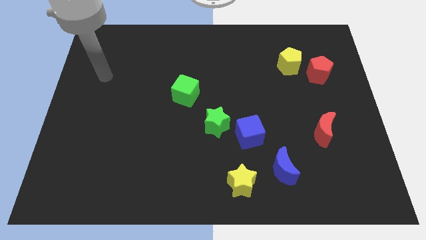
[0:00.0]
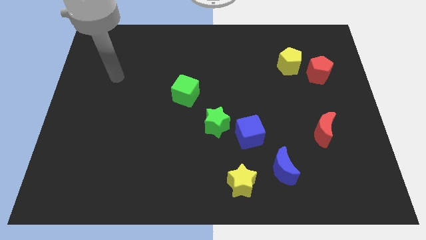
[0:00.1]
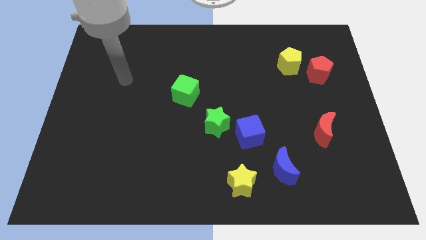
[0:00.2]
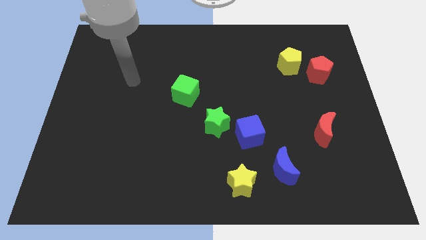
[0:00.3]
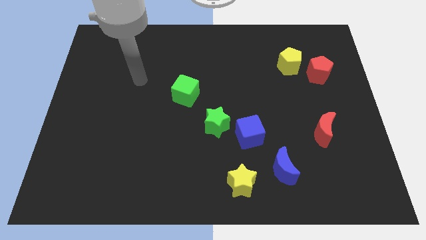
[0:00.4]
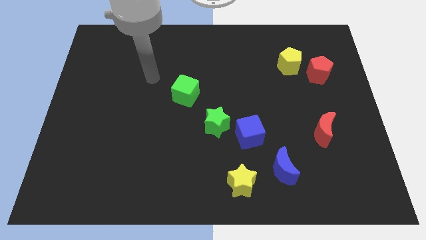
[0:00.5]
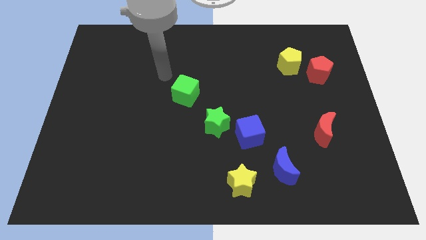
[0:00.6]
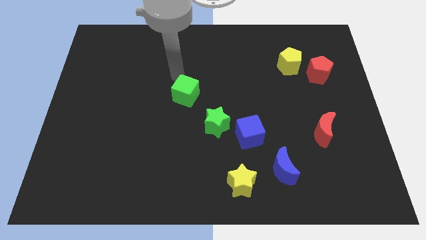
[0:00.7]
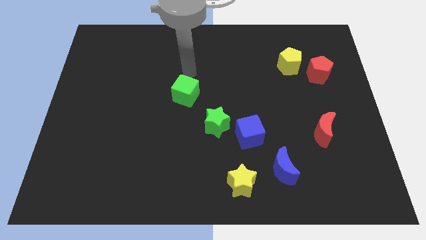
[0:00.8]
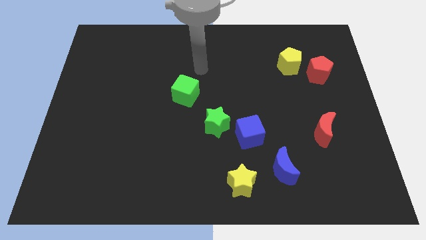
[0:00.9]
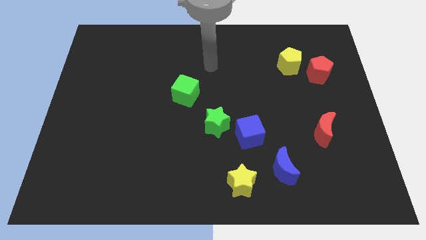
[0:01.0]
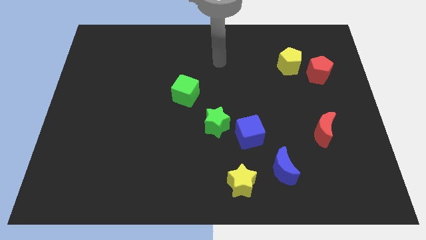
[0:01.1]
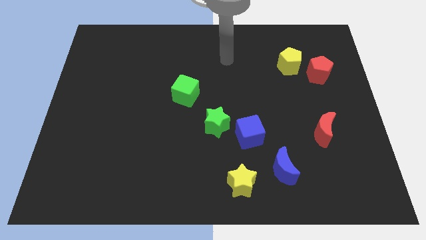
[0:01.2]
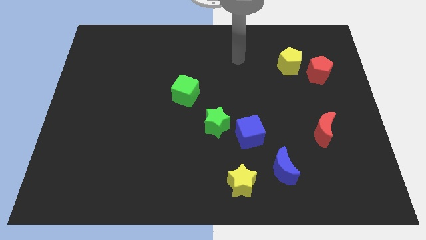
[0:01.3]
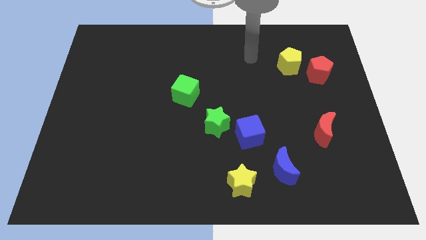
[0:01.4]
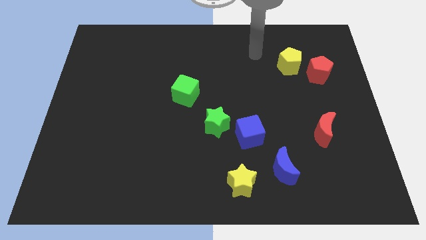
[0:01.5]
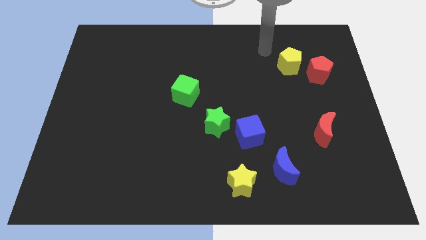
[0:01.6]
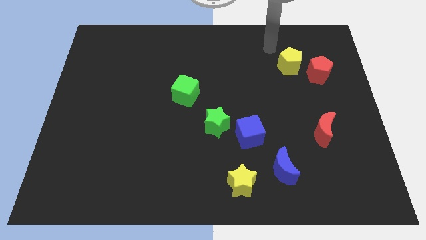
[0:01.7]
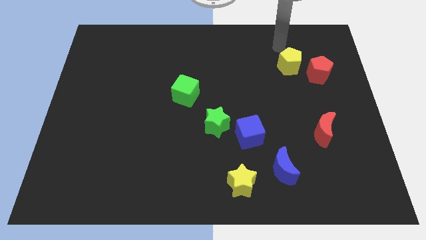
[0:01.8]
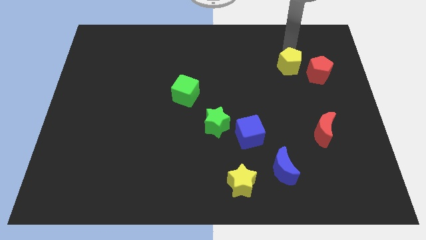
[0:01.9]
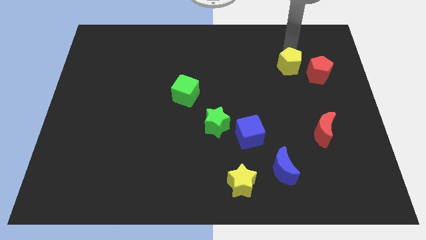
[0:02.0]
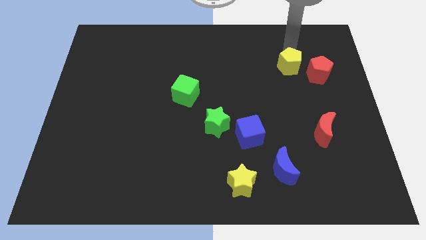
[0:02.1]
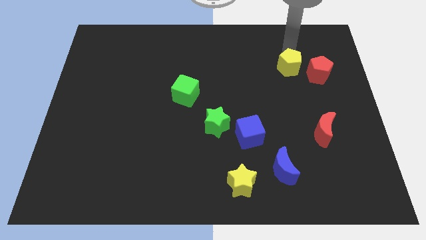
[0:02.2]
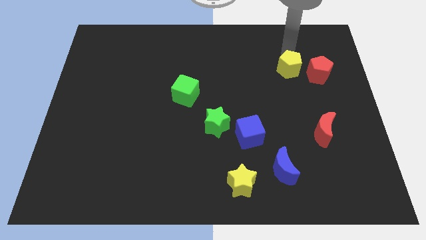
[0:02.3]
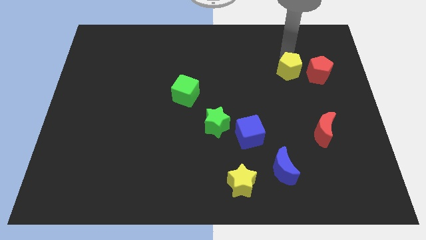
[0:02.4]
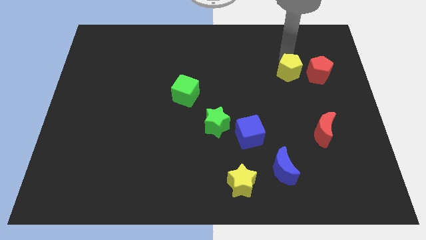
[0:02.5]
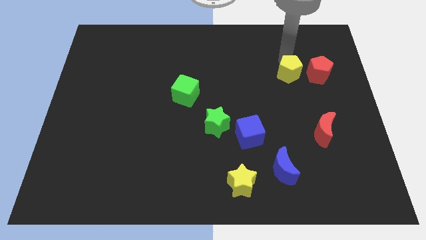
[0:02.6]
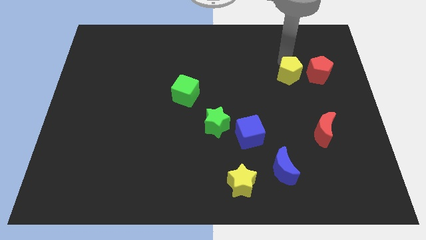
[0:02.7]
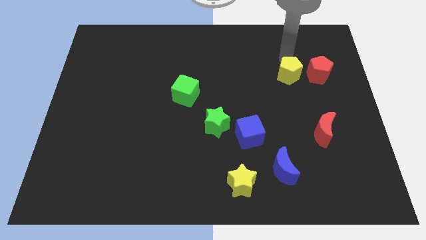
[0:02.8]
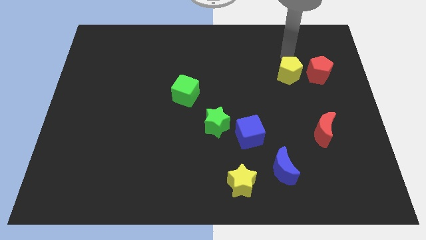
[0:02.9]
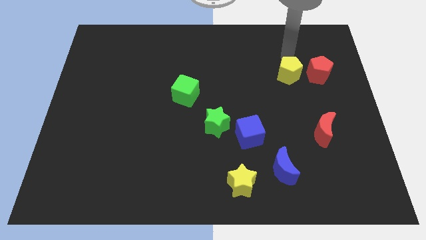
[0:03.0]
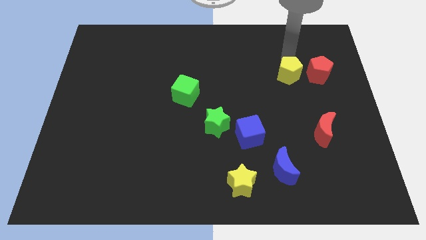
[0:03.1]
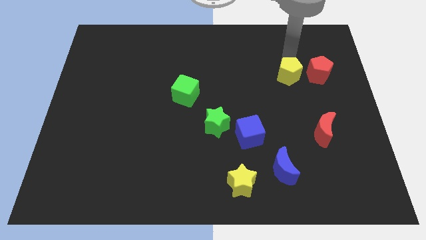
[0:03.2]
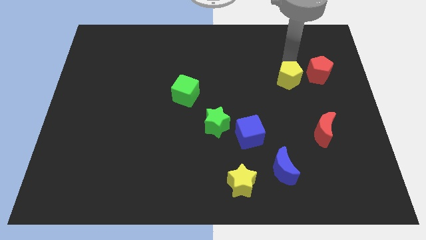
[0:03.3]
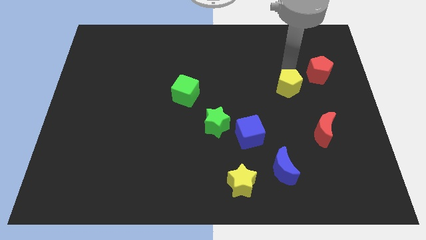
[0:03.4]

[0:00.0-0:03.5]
move the yellow pentagon a little bit down

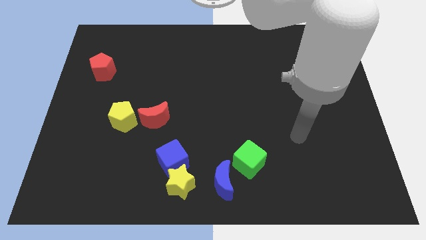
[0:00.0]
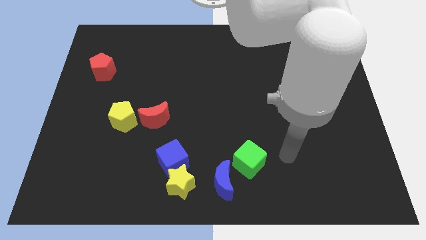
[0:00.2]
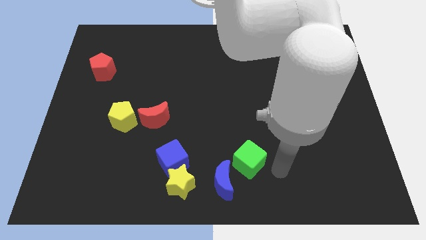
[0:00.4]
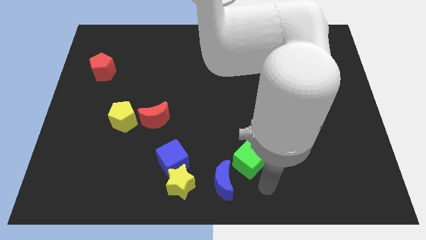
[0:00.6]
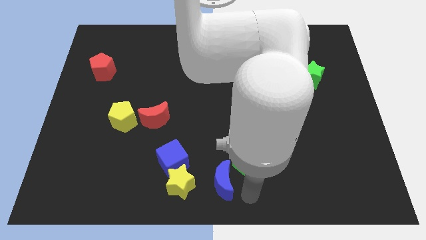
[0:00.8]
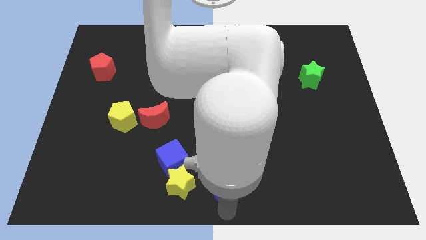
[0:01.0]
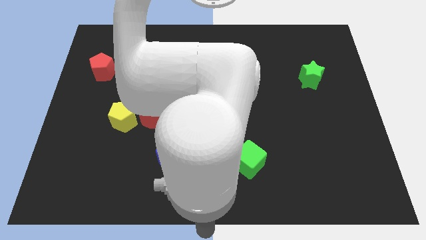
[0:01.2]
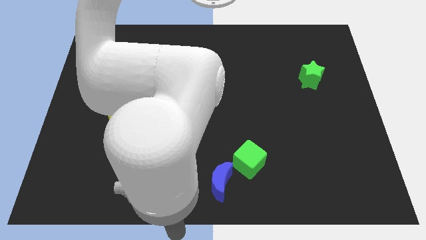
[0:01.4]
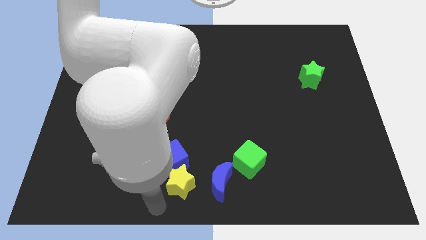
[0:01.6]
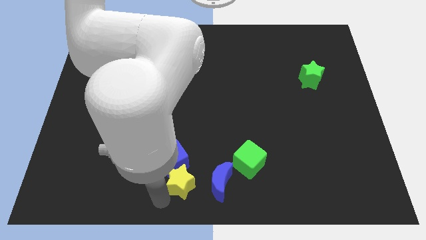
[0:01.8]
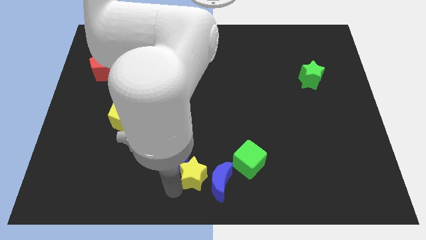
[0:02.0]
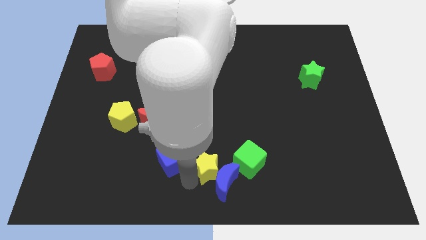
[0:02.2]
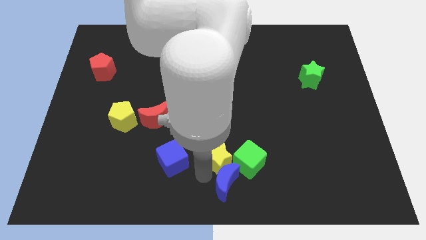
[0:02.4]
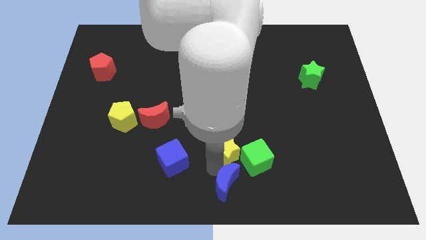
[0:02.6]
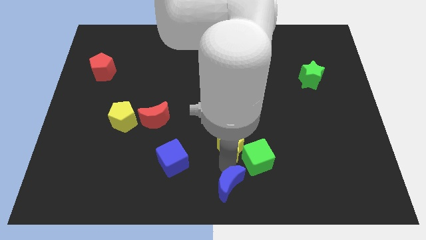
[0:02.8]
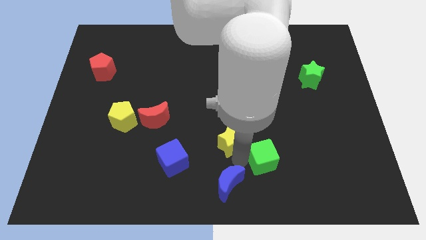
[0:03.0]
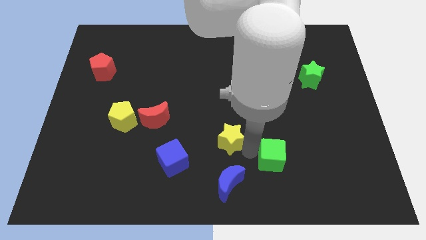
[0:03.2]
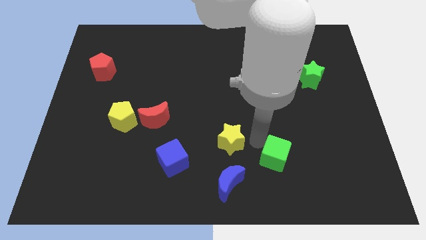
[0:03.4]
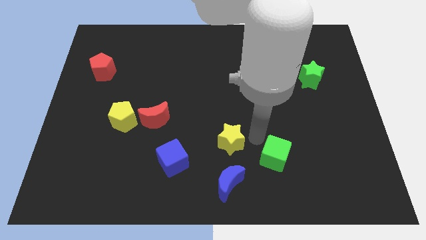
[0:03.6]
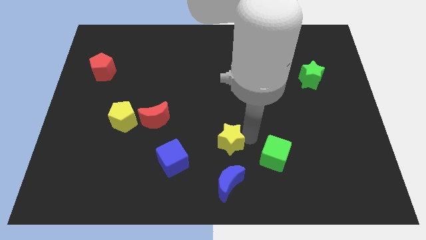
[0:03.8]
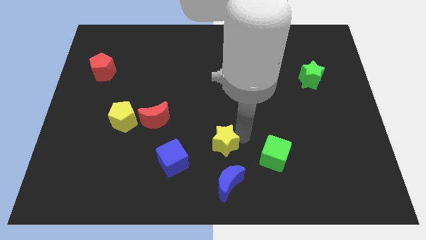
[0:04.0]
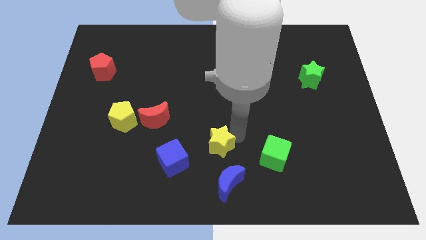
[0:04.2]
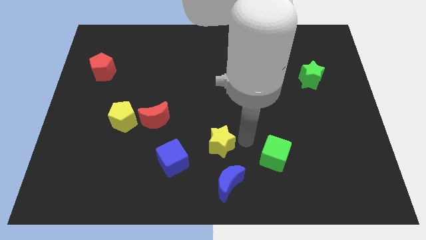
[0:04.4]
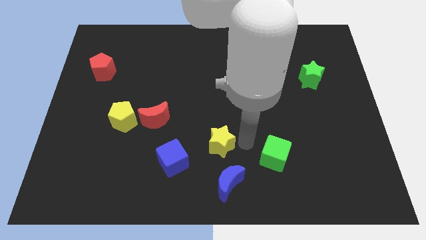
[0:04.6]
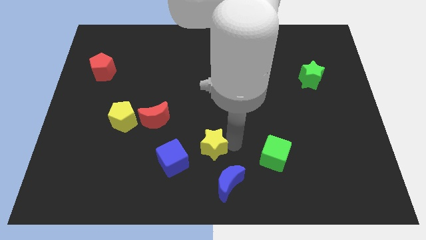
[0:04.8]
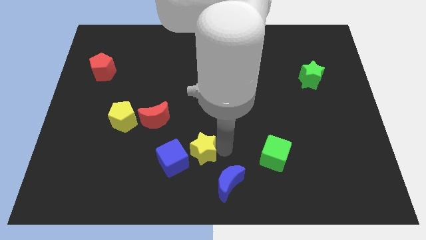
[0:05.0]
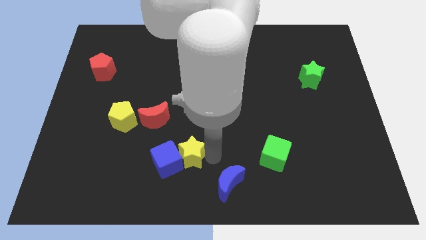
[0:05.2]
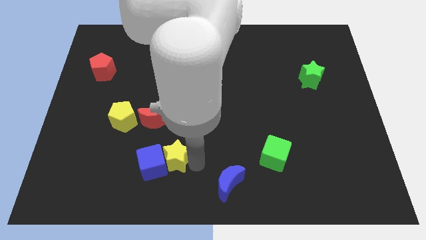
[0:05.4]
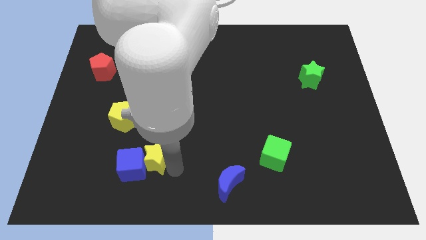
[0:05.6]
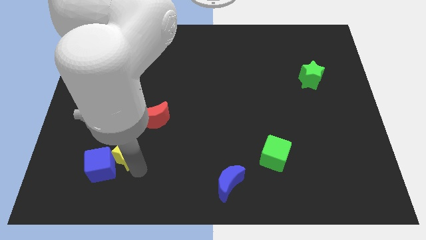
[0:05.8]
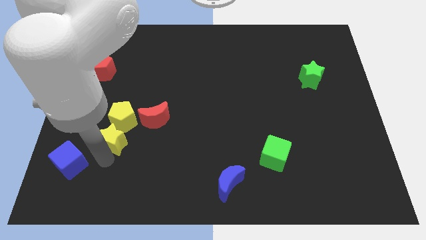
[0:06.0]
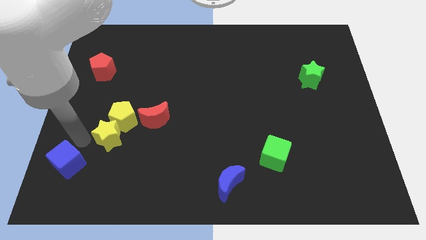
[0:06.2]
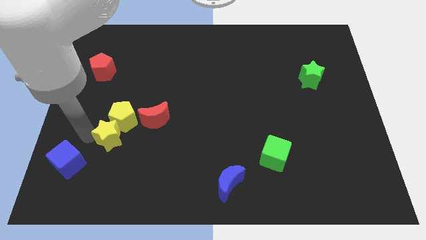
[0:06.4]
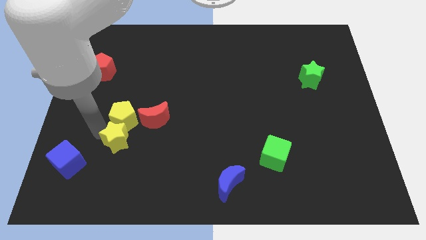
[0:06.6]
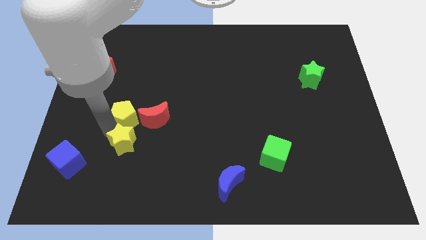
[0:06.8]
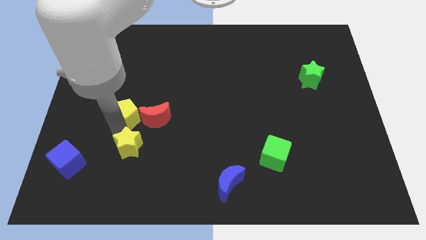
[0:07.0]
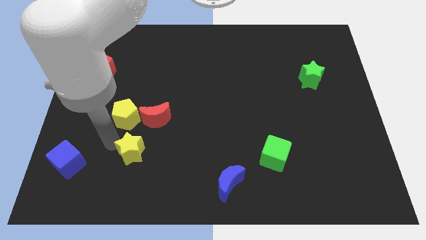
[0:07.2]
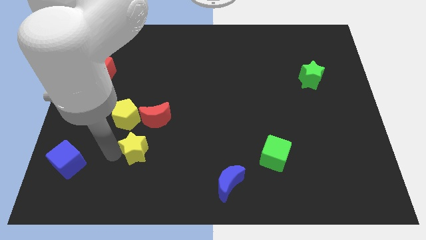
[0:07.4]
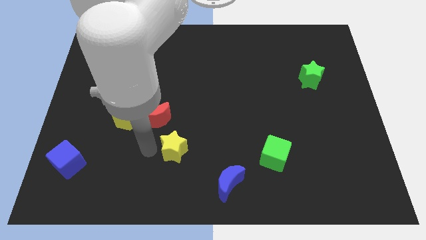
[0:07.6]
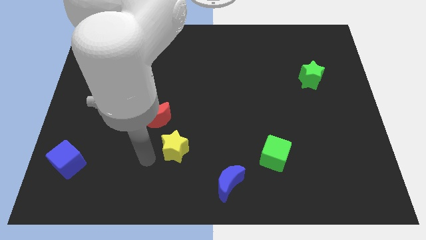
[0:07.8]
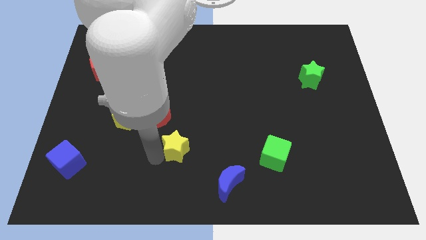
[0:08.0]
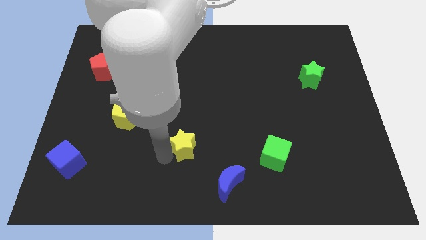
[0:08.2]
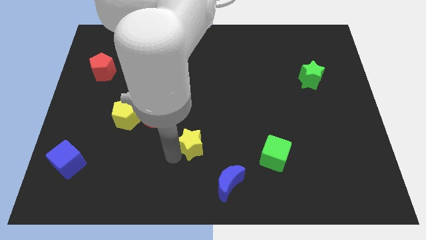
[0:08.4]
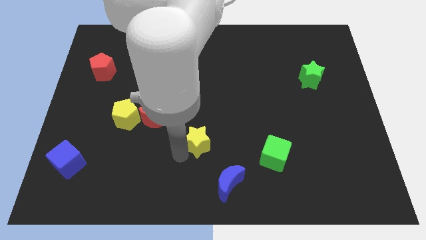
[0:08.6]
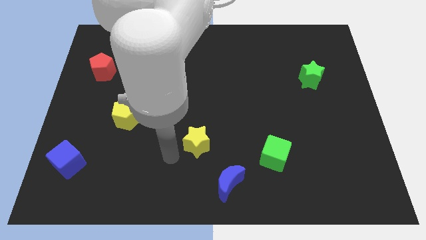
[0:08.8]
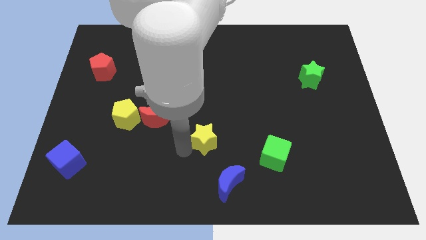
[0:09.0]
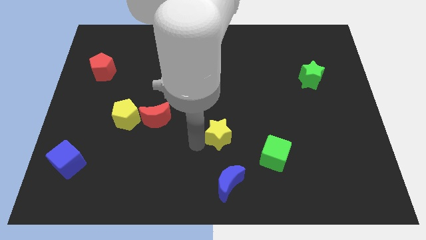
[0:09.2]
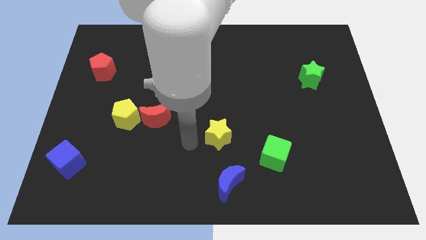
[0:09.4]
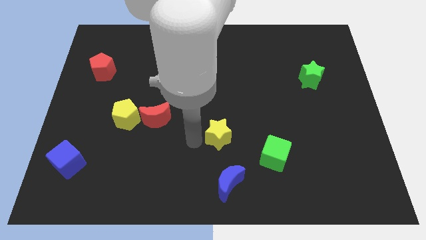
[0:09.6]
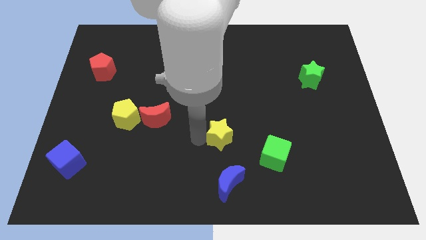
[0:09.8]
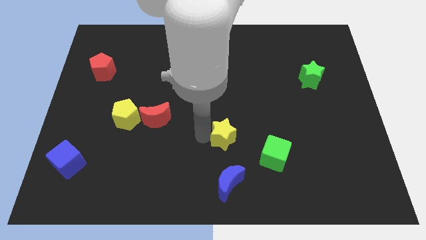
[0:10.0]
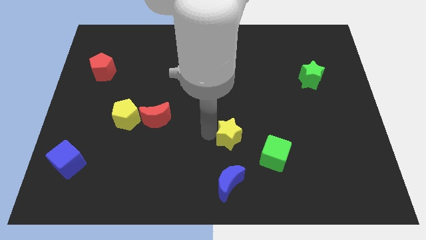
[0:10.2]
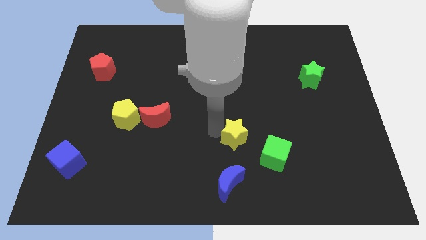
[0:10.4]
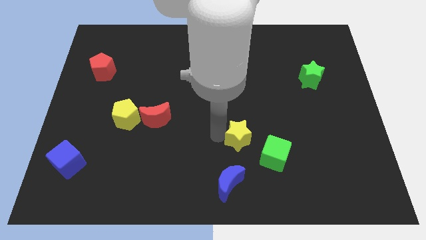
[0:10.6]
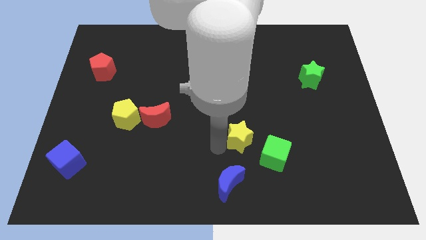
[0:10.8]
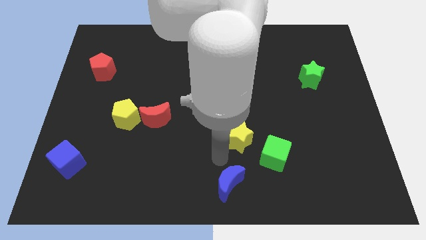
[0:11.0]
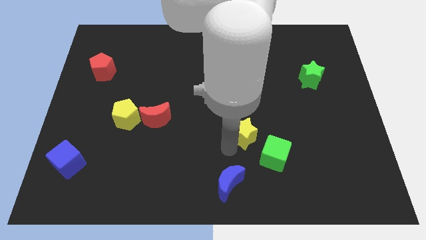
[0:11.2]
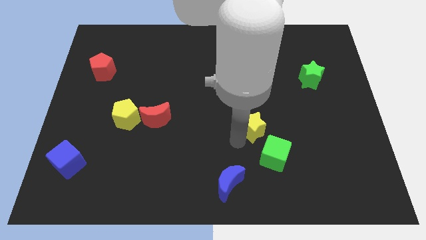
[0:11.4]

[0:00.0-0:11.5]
move the yellow star up and then right
